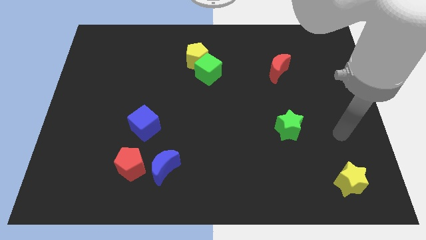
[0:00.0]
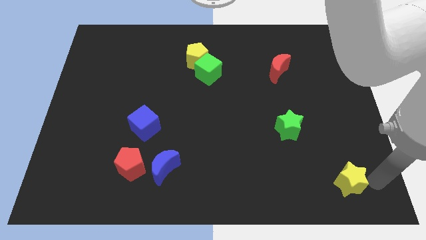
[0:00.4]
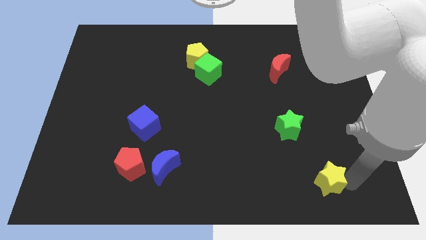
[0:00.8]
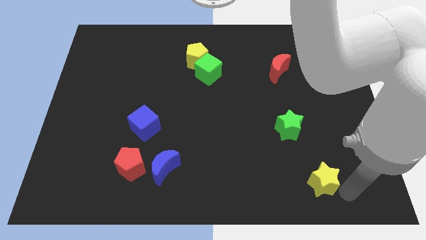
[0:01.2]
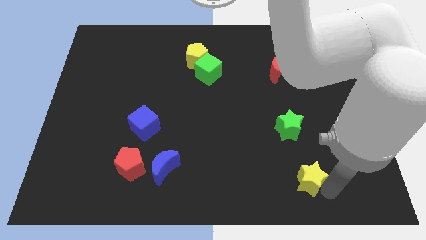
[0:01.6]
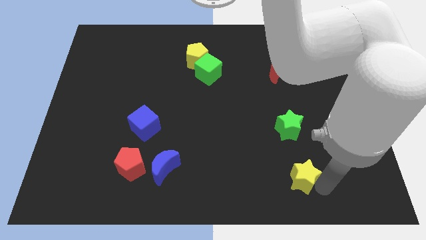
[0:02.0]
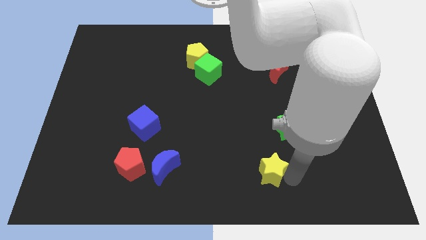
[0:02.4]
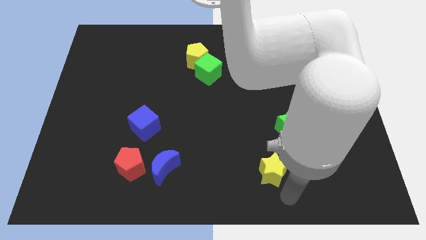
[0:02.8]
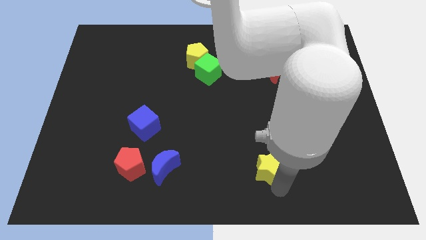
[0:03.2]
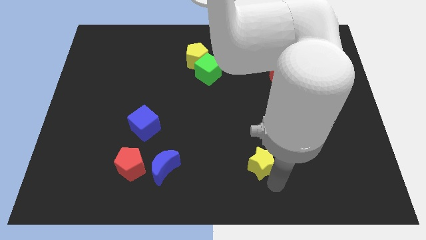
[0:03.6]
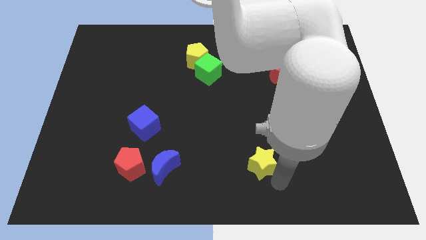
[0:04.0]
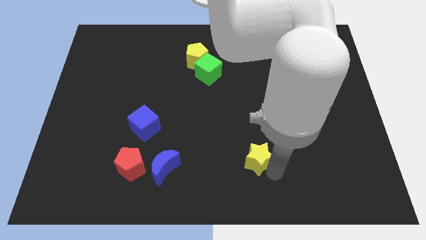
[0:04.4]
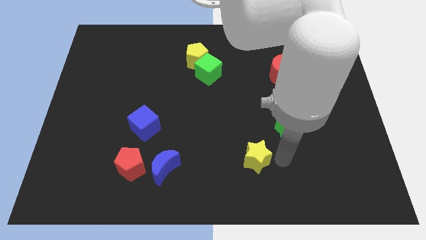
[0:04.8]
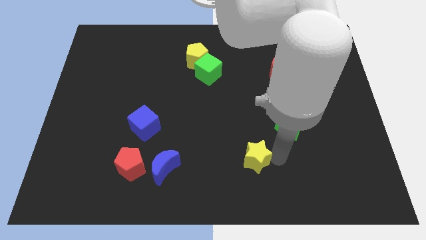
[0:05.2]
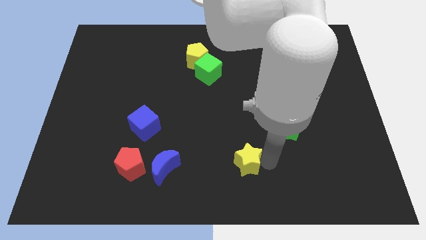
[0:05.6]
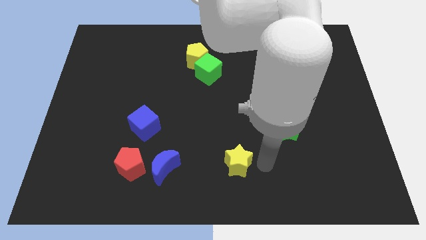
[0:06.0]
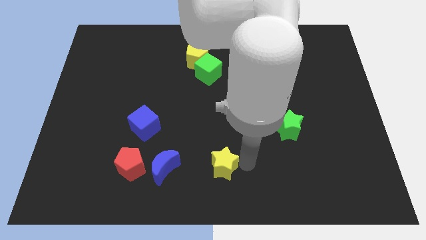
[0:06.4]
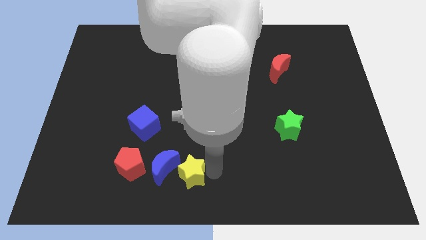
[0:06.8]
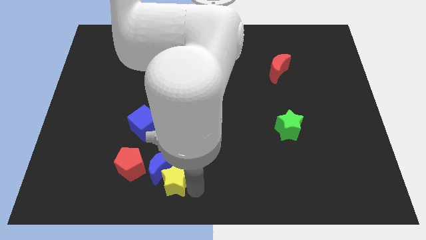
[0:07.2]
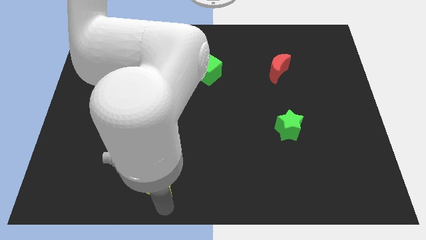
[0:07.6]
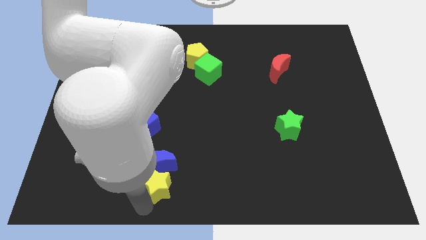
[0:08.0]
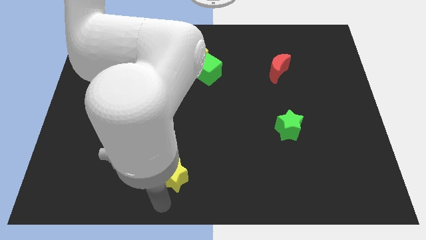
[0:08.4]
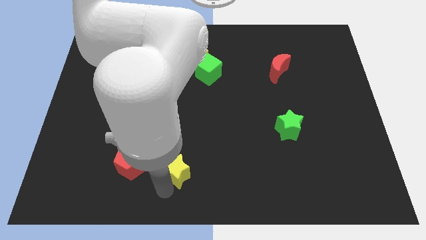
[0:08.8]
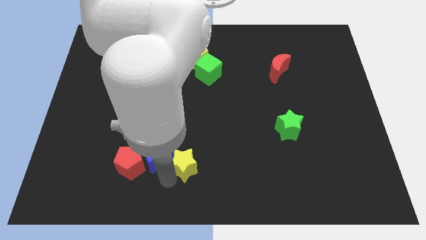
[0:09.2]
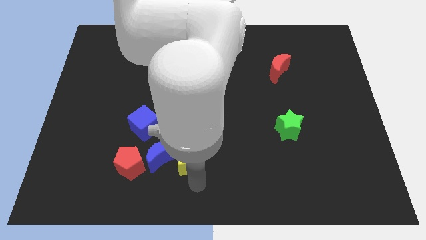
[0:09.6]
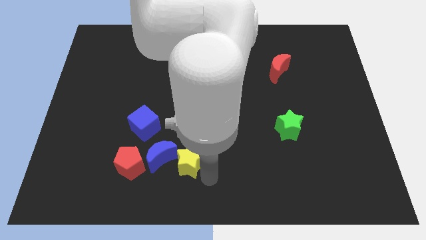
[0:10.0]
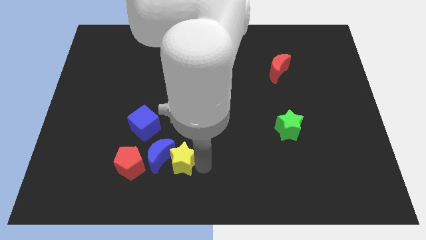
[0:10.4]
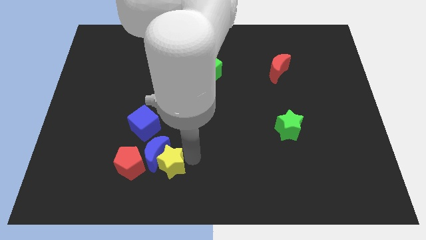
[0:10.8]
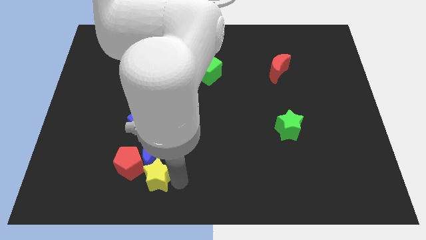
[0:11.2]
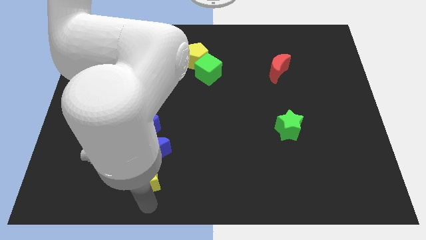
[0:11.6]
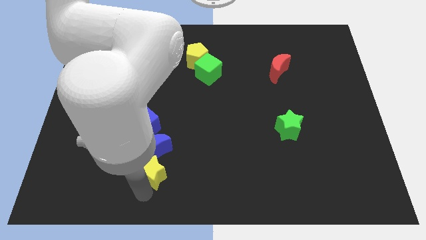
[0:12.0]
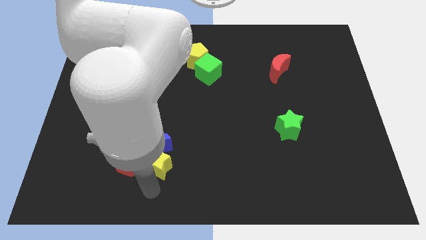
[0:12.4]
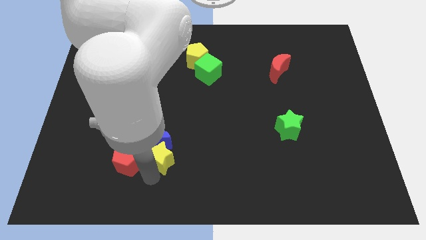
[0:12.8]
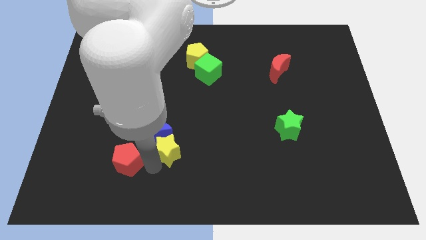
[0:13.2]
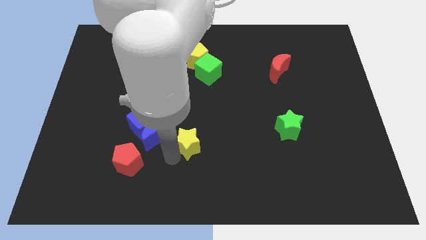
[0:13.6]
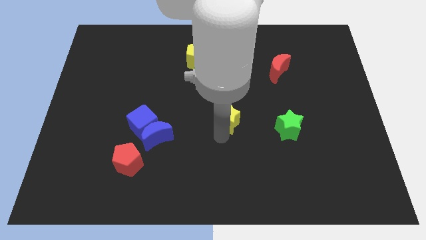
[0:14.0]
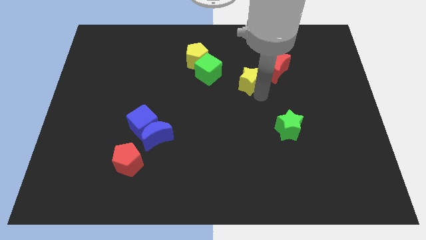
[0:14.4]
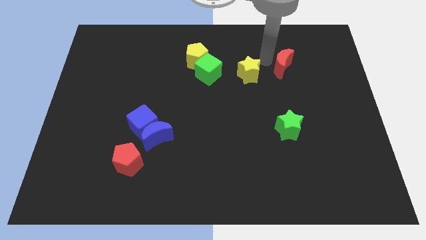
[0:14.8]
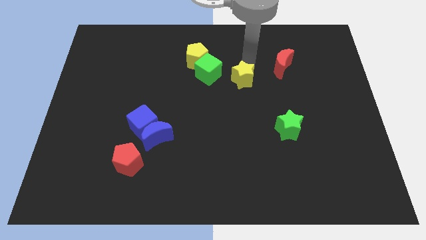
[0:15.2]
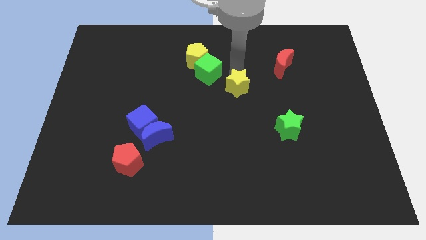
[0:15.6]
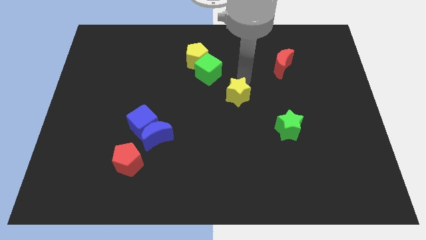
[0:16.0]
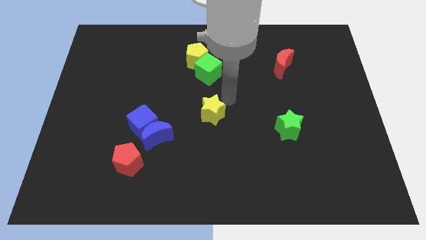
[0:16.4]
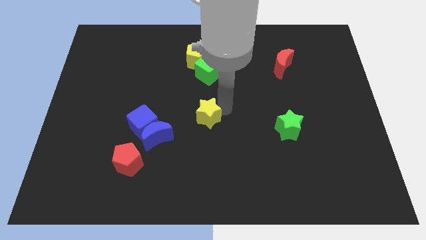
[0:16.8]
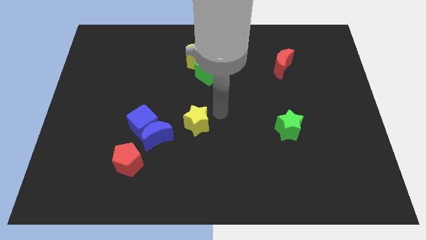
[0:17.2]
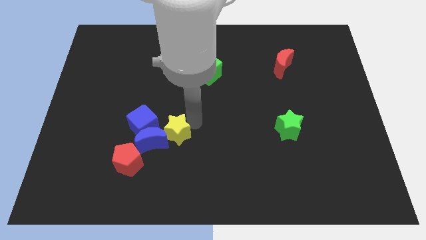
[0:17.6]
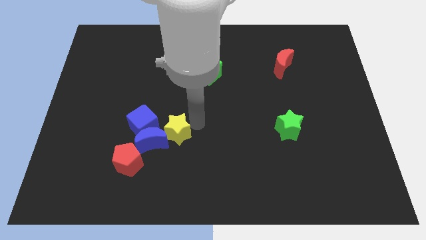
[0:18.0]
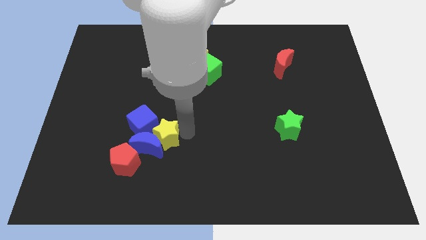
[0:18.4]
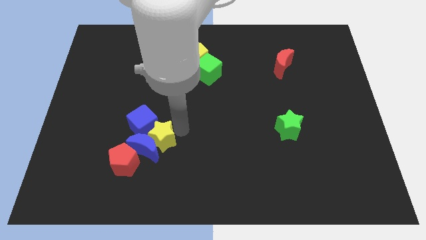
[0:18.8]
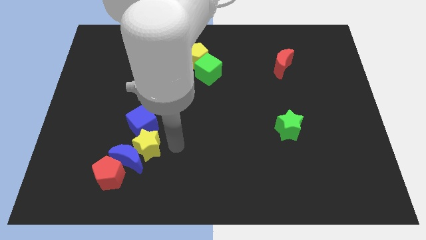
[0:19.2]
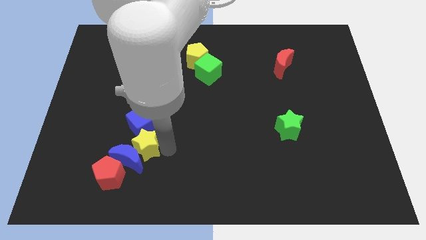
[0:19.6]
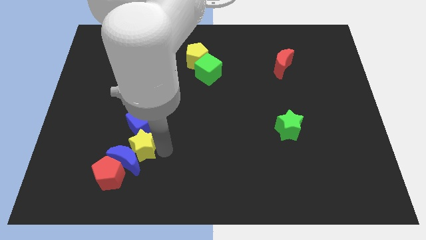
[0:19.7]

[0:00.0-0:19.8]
push the yellow star diagonally down and to the left of the blue cube

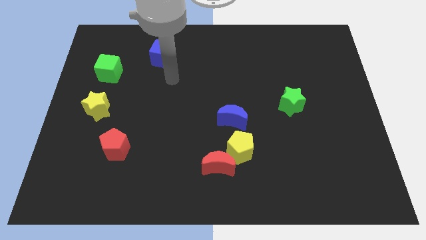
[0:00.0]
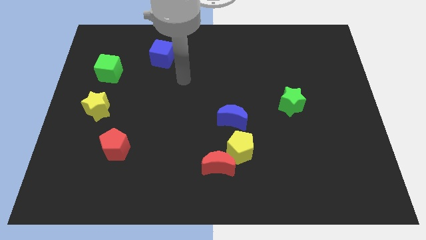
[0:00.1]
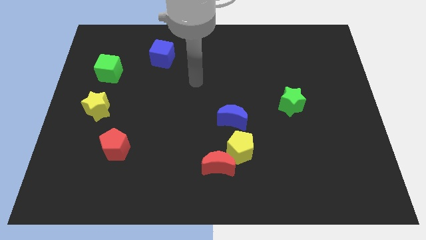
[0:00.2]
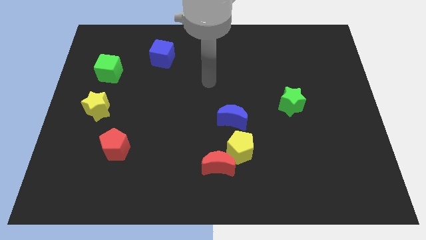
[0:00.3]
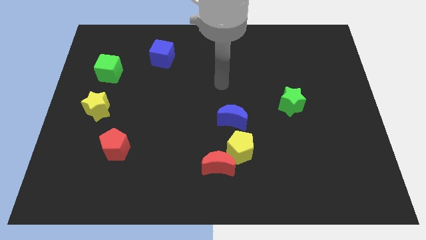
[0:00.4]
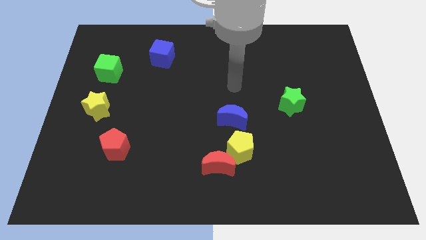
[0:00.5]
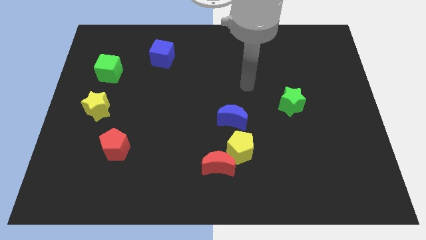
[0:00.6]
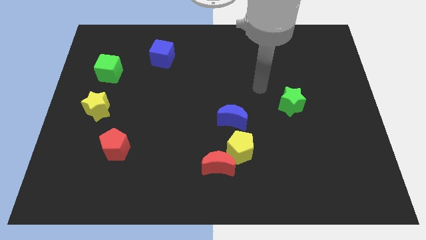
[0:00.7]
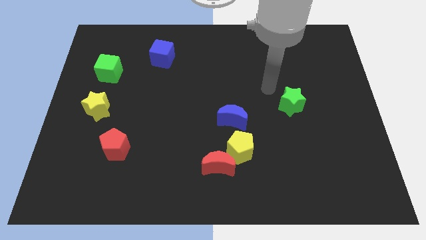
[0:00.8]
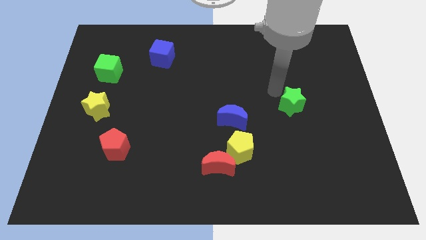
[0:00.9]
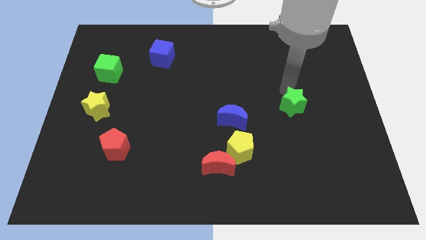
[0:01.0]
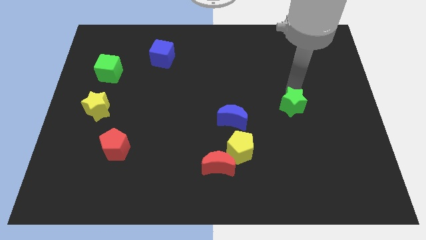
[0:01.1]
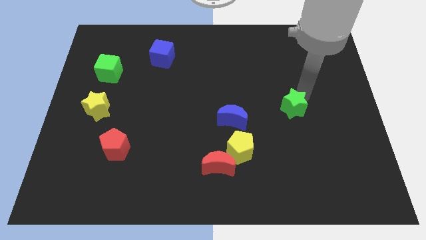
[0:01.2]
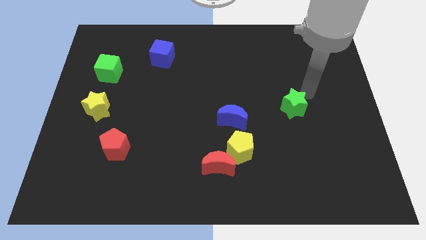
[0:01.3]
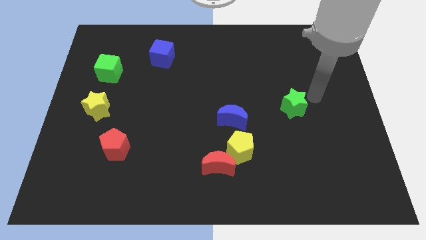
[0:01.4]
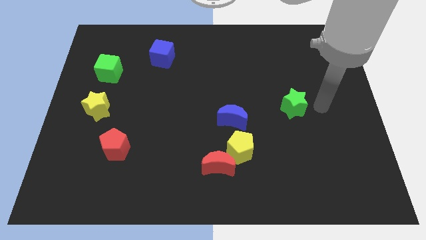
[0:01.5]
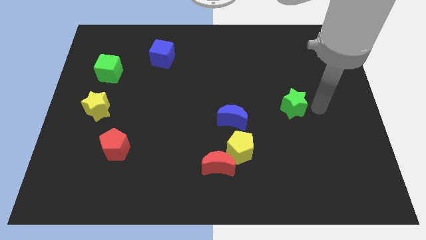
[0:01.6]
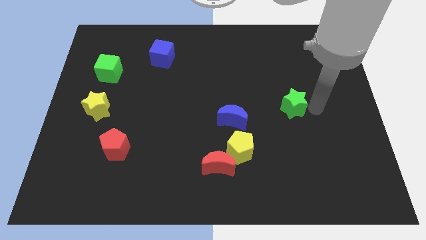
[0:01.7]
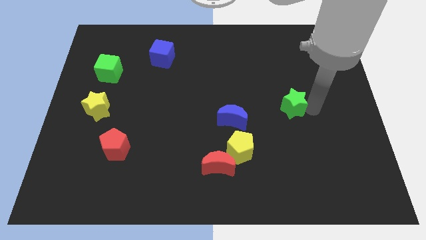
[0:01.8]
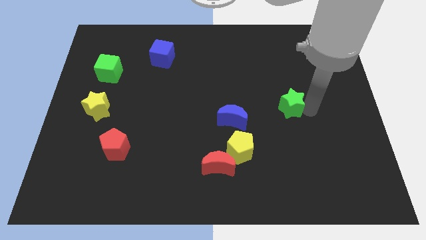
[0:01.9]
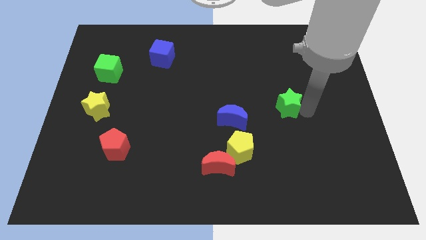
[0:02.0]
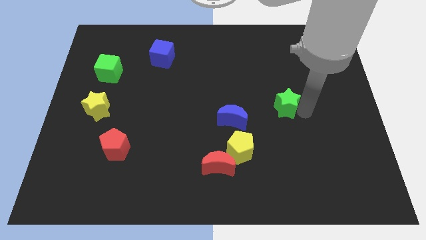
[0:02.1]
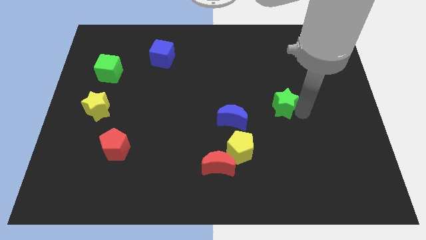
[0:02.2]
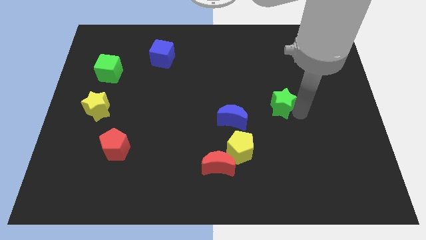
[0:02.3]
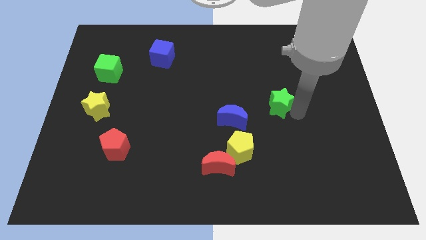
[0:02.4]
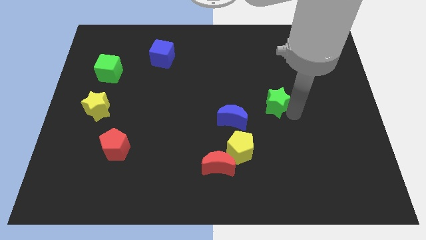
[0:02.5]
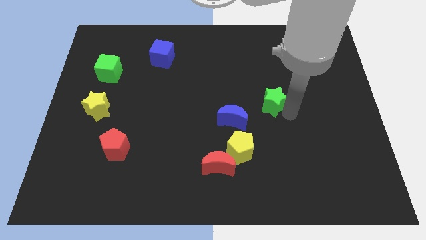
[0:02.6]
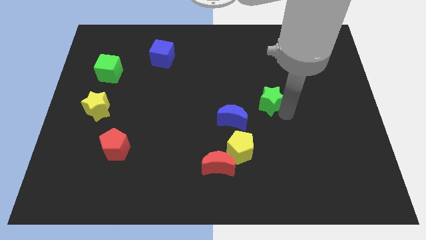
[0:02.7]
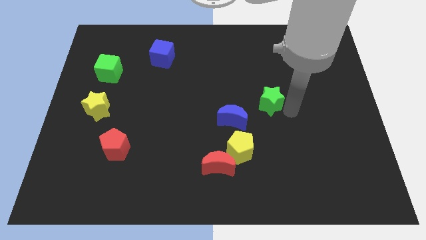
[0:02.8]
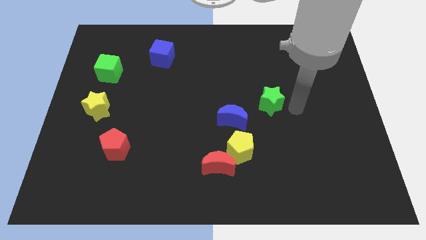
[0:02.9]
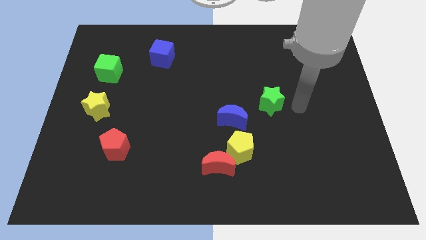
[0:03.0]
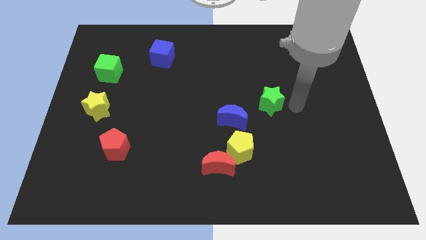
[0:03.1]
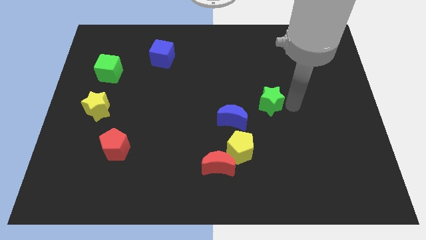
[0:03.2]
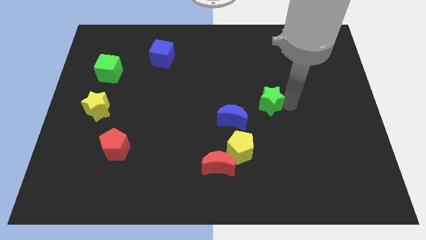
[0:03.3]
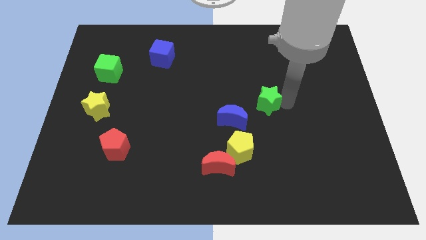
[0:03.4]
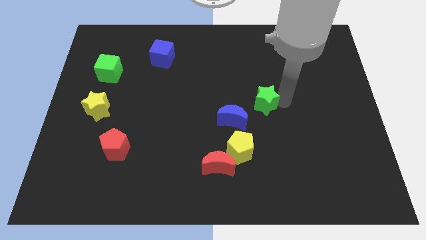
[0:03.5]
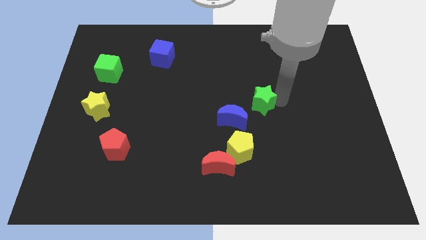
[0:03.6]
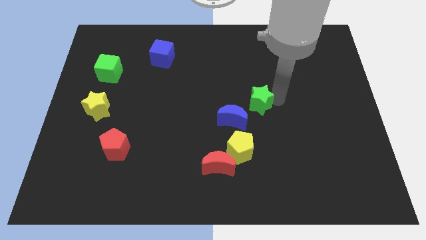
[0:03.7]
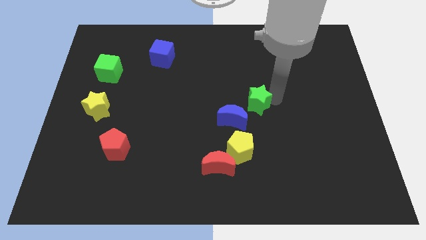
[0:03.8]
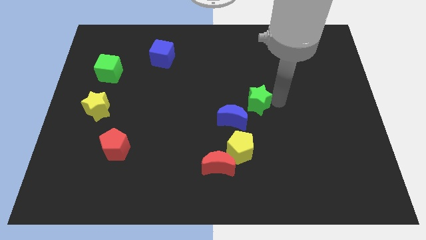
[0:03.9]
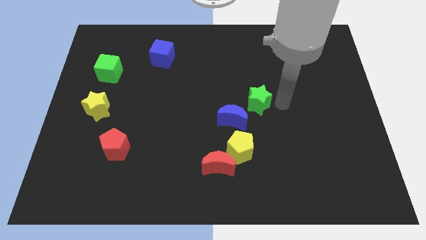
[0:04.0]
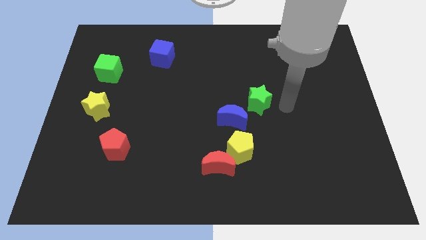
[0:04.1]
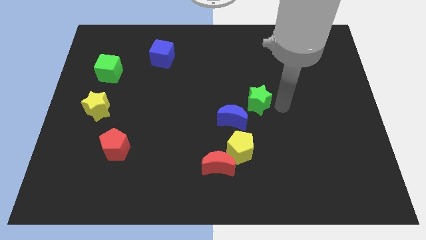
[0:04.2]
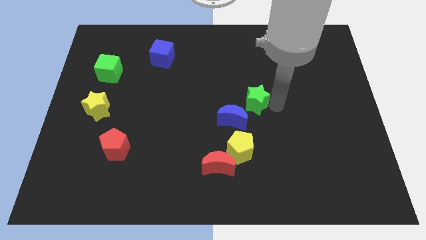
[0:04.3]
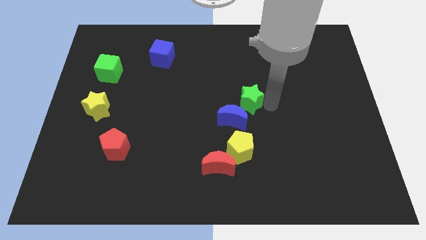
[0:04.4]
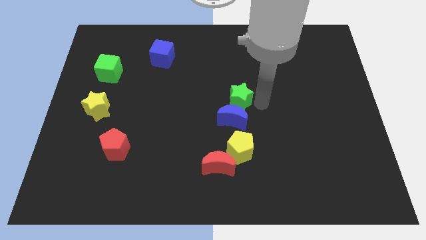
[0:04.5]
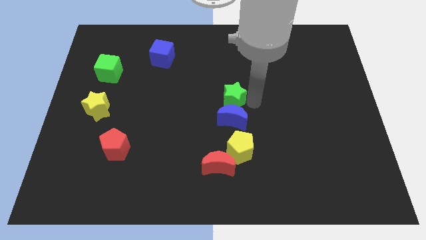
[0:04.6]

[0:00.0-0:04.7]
put the green star to the top left side of the blue moon
